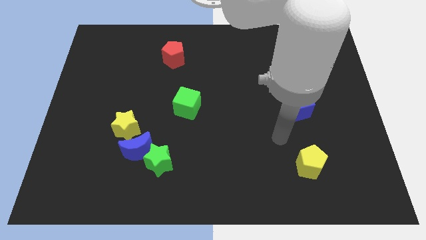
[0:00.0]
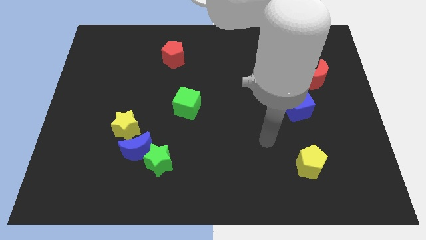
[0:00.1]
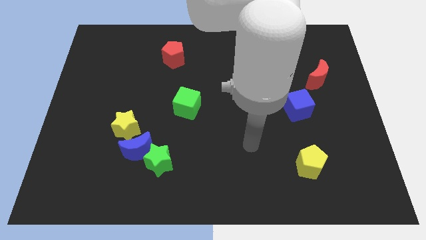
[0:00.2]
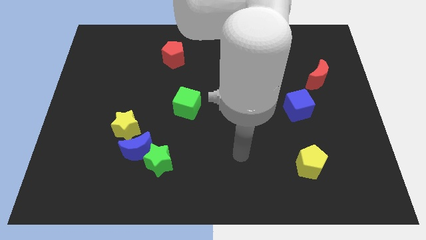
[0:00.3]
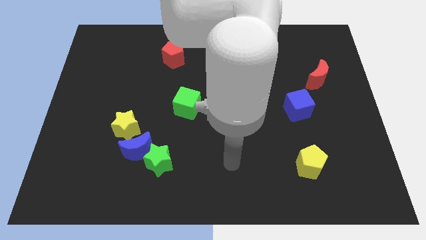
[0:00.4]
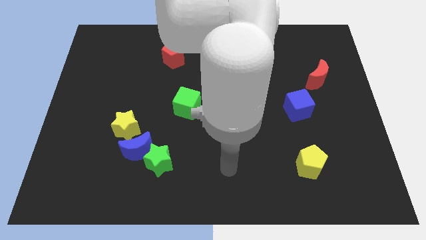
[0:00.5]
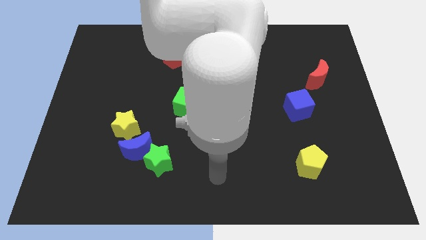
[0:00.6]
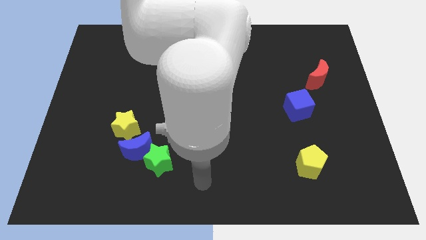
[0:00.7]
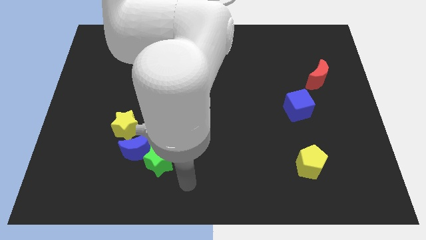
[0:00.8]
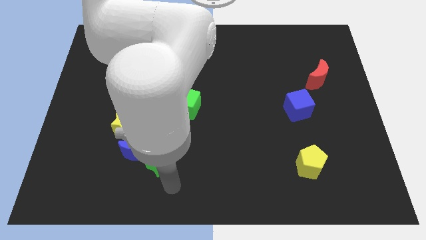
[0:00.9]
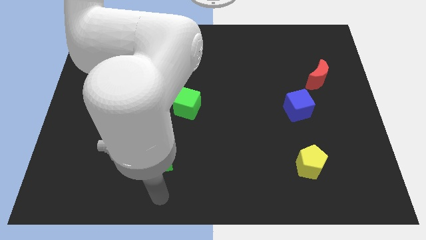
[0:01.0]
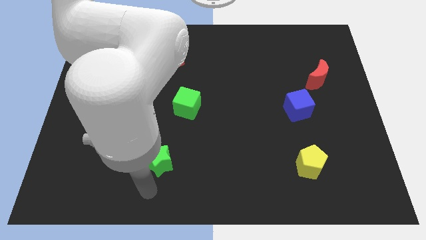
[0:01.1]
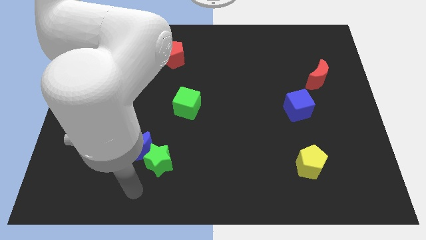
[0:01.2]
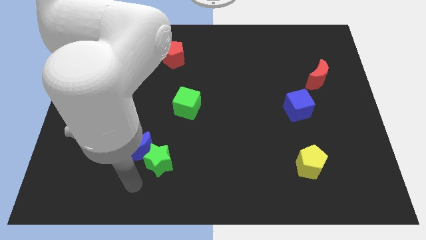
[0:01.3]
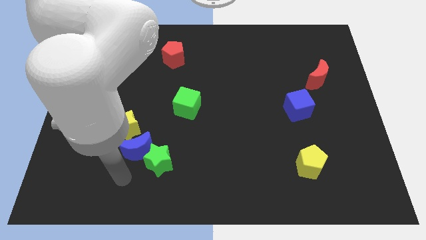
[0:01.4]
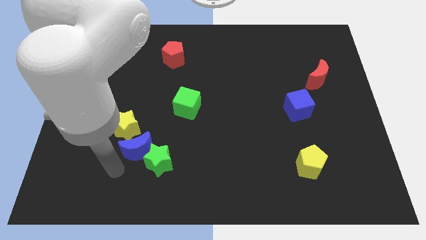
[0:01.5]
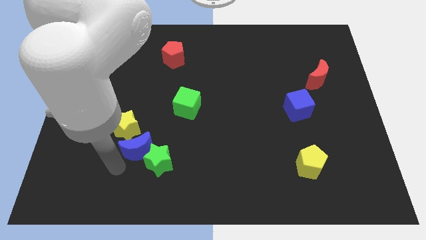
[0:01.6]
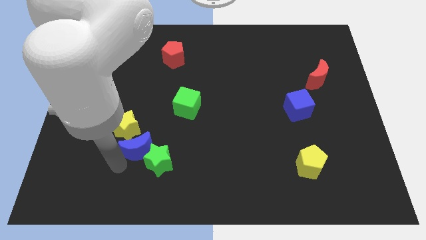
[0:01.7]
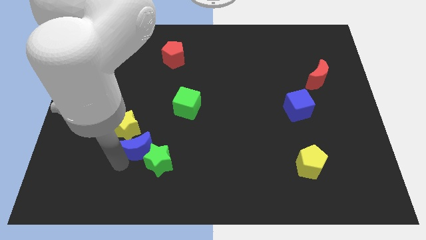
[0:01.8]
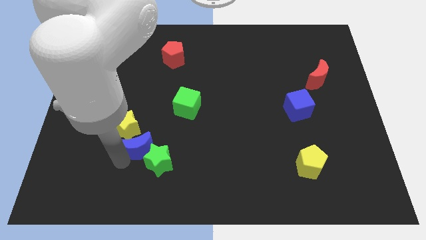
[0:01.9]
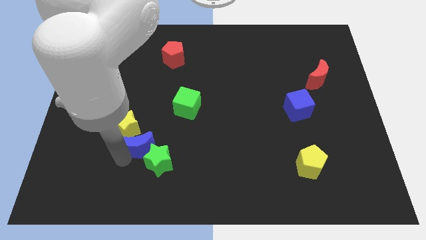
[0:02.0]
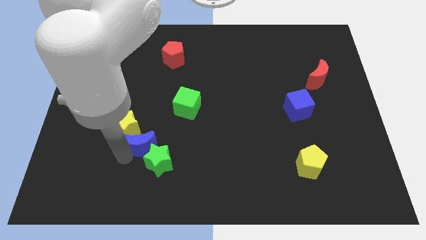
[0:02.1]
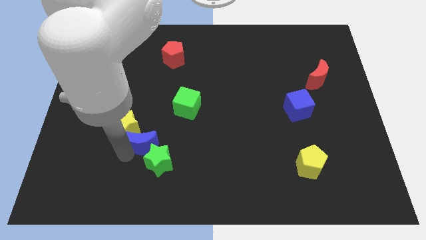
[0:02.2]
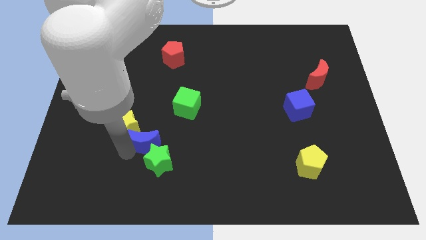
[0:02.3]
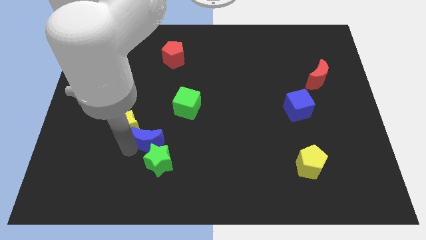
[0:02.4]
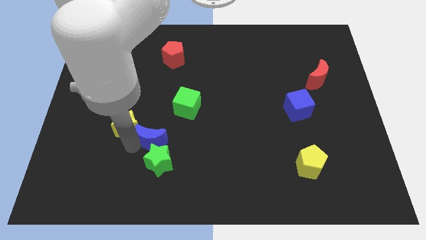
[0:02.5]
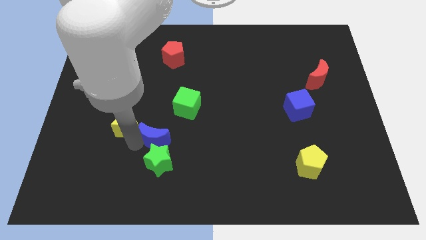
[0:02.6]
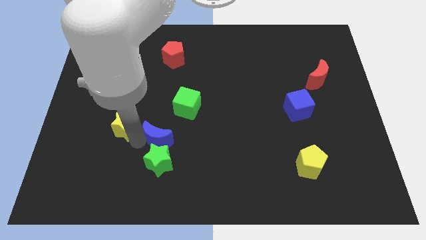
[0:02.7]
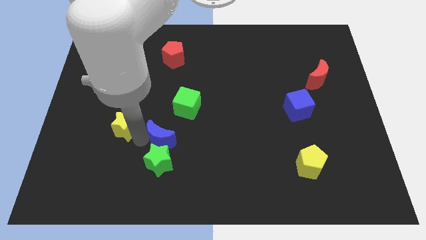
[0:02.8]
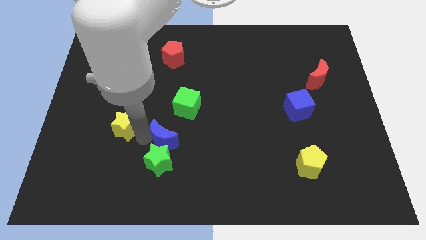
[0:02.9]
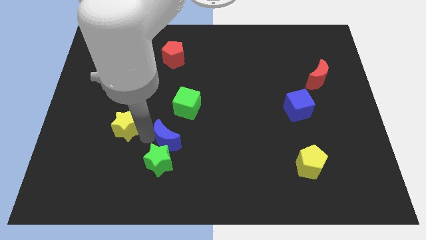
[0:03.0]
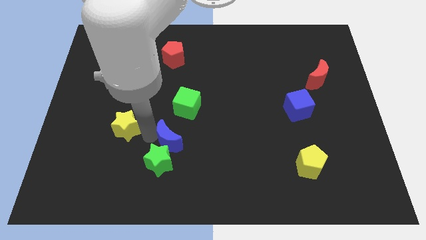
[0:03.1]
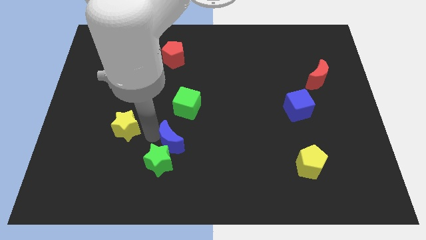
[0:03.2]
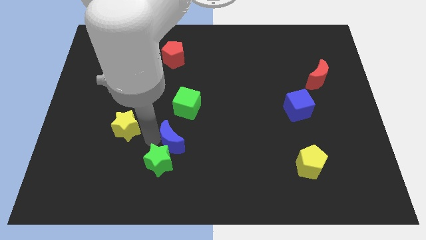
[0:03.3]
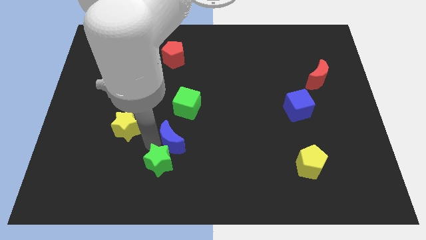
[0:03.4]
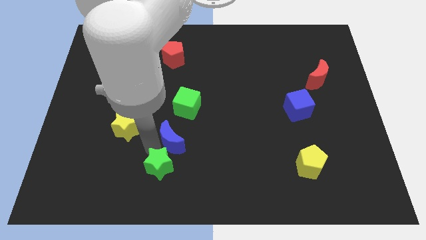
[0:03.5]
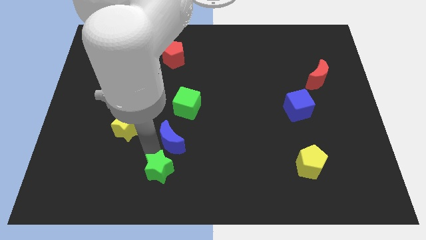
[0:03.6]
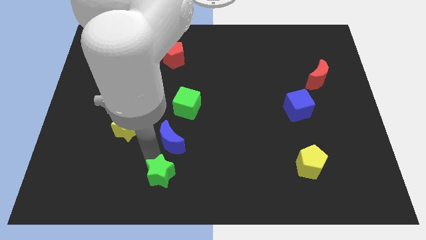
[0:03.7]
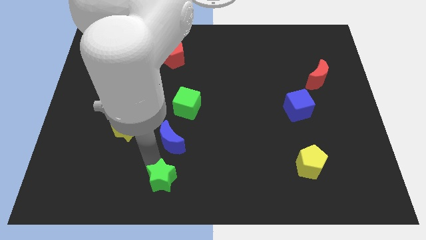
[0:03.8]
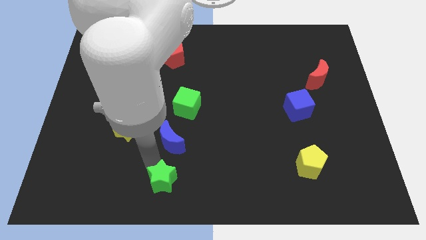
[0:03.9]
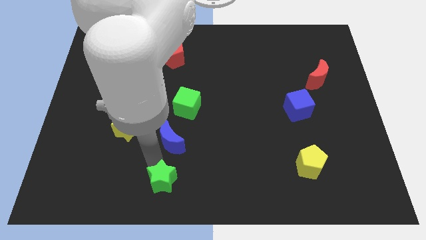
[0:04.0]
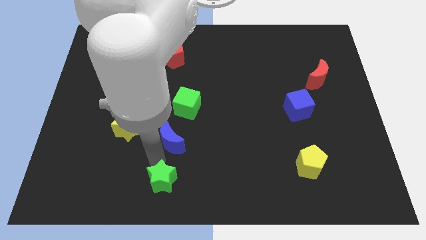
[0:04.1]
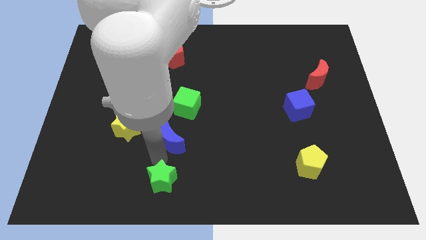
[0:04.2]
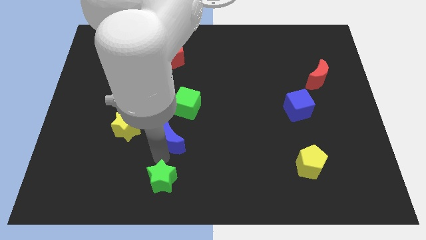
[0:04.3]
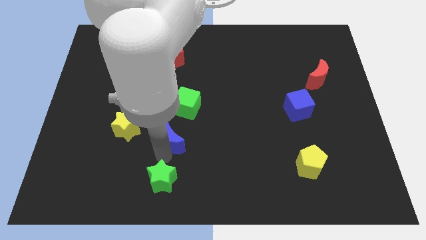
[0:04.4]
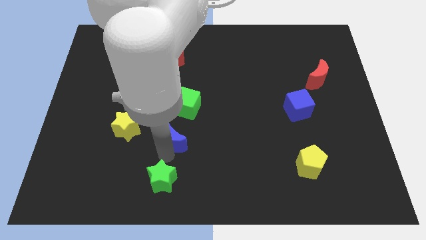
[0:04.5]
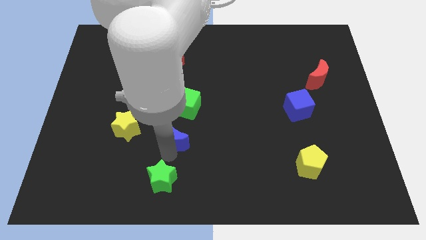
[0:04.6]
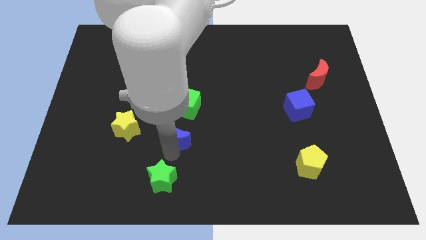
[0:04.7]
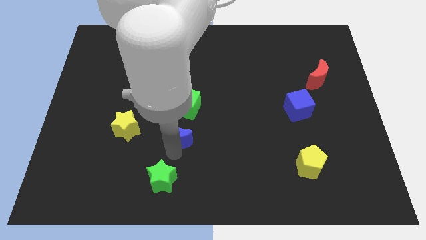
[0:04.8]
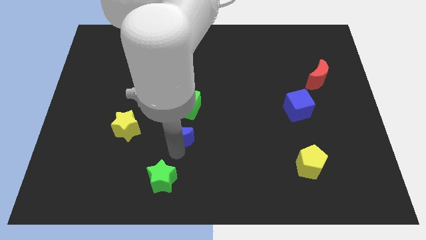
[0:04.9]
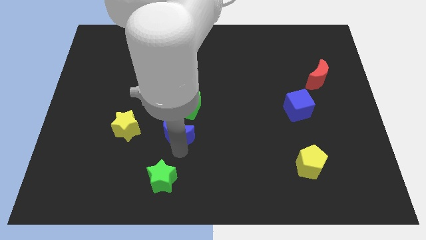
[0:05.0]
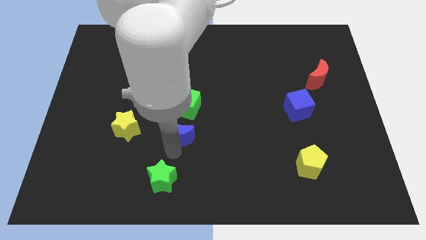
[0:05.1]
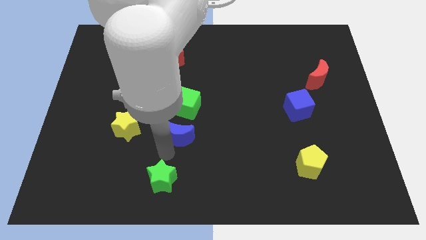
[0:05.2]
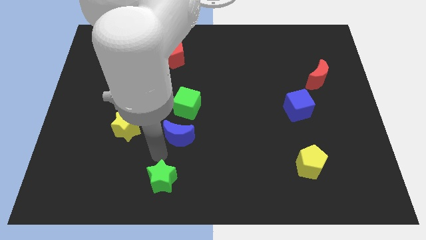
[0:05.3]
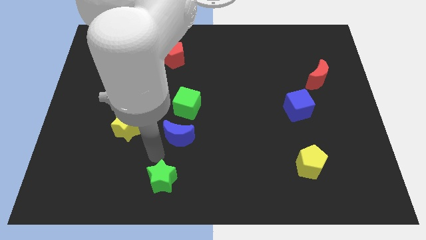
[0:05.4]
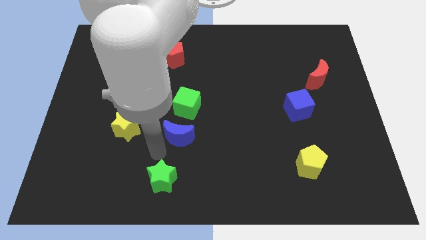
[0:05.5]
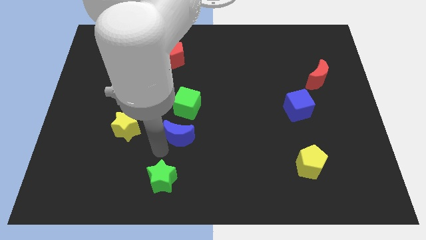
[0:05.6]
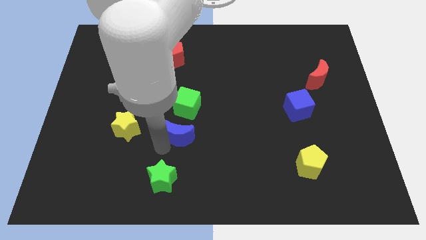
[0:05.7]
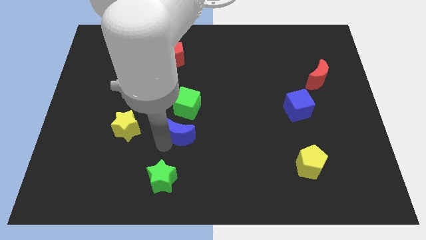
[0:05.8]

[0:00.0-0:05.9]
move the blue moon to the middle of the board

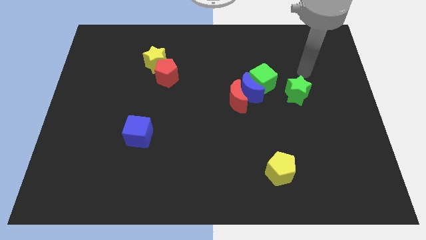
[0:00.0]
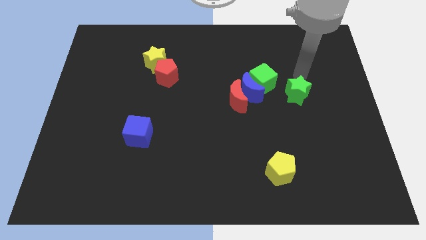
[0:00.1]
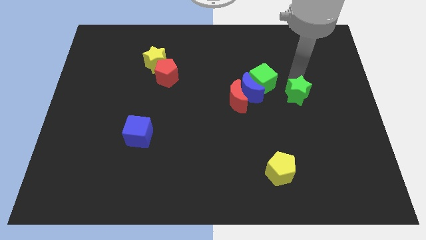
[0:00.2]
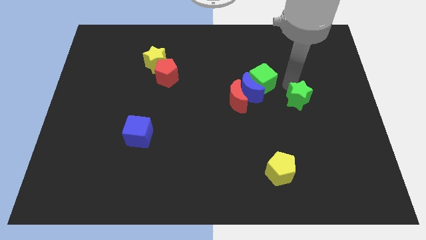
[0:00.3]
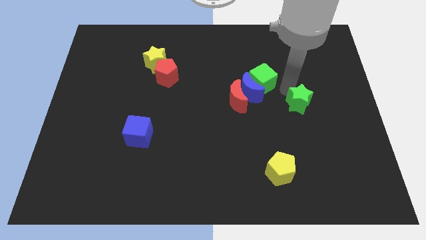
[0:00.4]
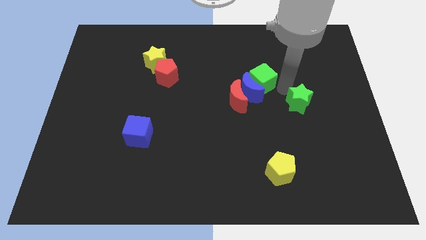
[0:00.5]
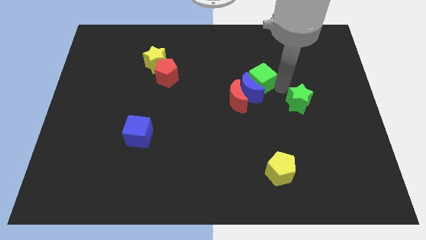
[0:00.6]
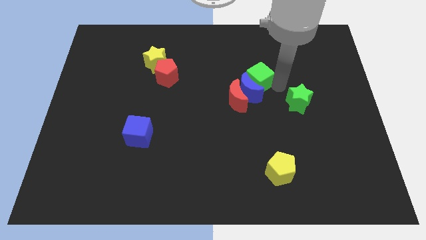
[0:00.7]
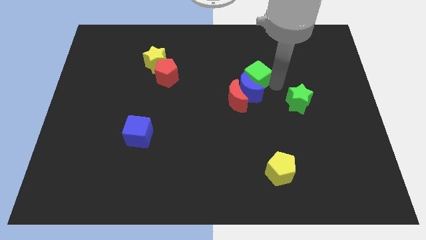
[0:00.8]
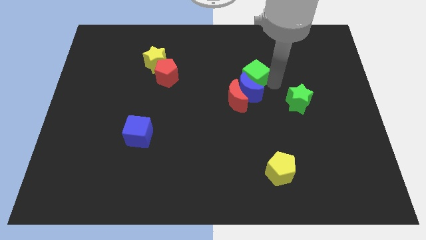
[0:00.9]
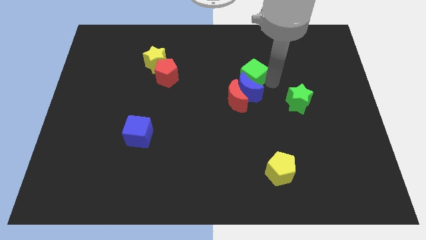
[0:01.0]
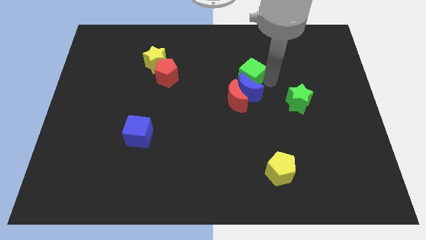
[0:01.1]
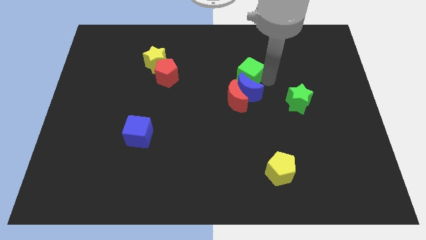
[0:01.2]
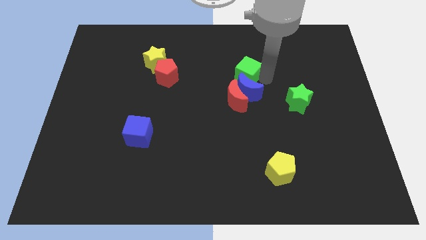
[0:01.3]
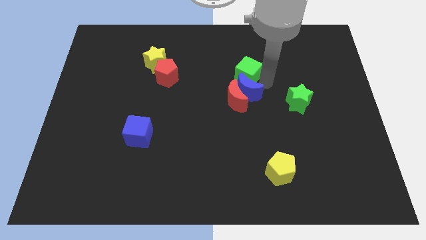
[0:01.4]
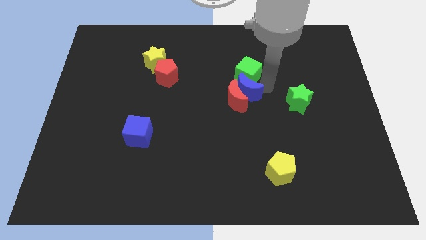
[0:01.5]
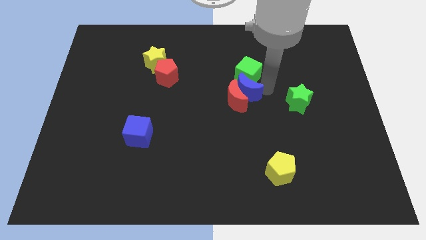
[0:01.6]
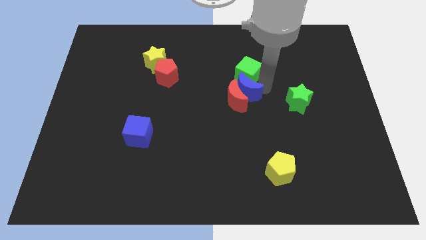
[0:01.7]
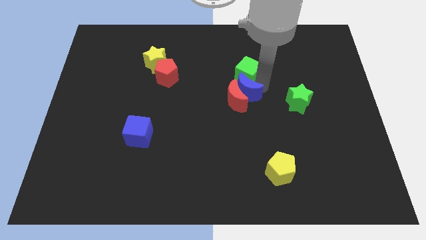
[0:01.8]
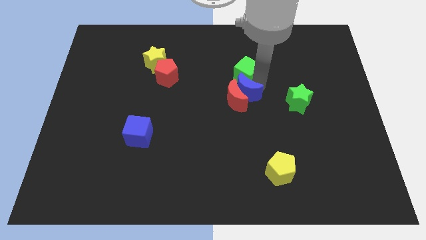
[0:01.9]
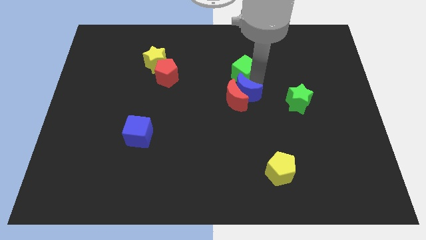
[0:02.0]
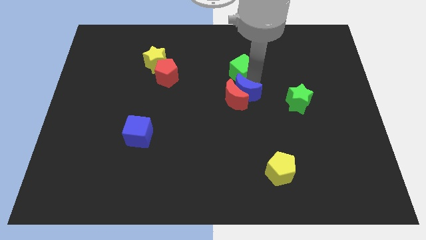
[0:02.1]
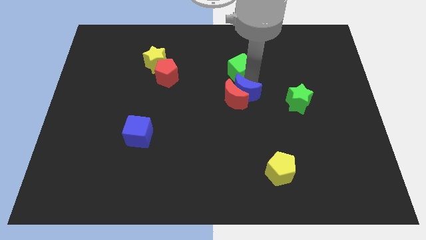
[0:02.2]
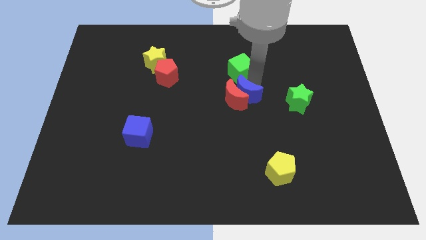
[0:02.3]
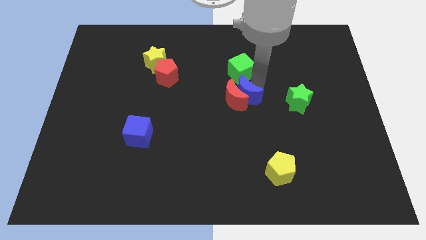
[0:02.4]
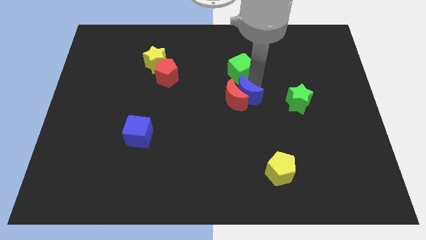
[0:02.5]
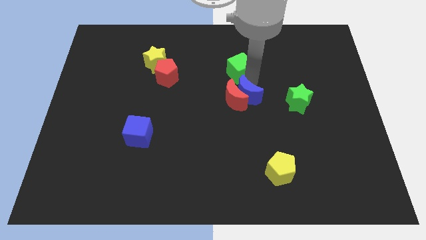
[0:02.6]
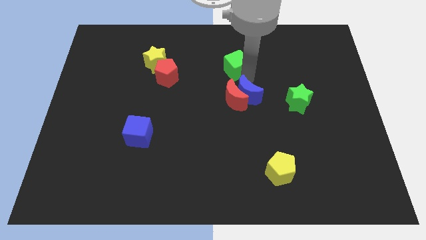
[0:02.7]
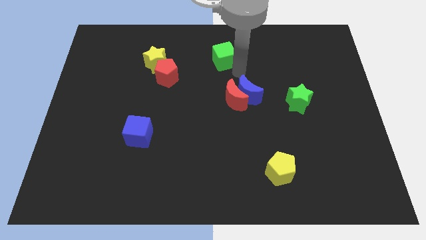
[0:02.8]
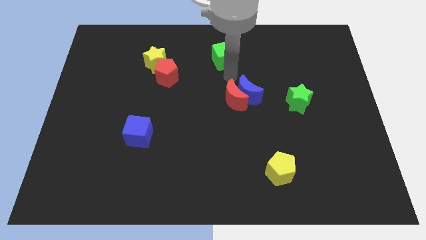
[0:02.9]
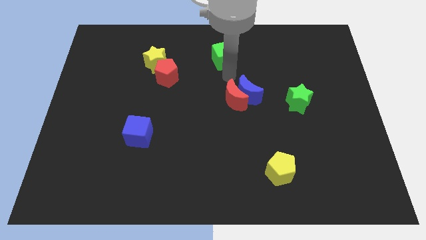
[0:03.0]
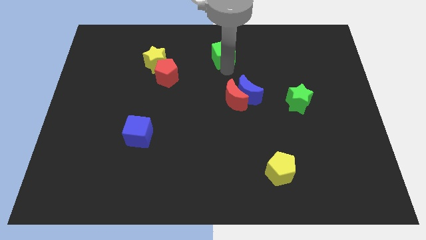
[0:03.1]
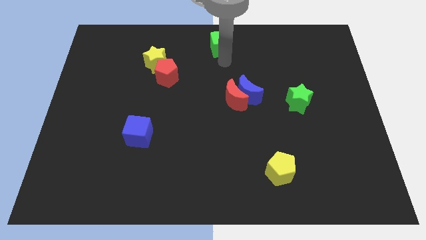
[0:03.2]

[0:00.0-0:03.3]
move the green cube to the top side
